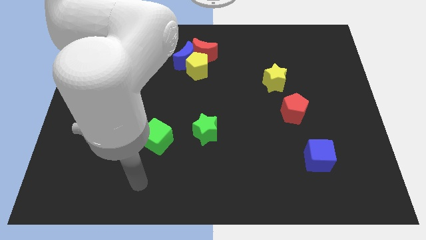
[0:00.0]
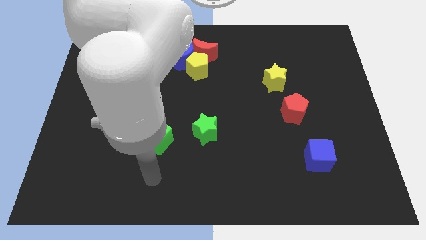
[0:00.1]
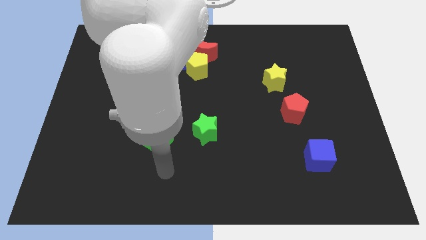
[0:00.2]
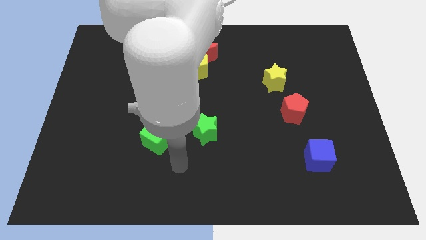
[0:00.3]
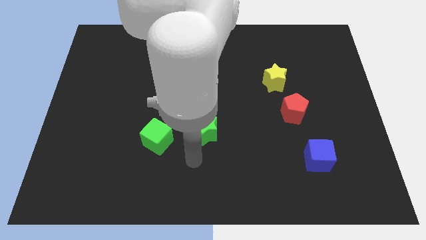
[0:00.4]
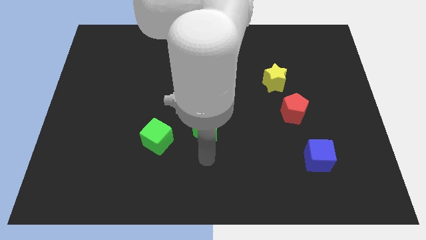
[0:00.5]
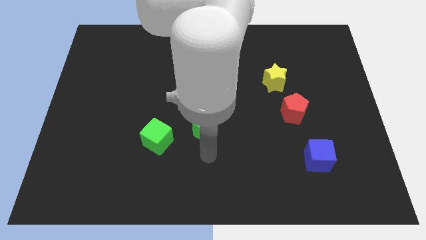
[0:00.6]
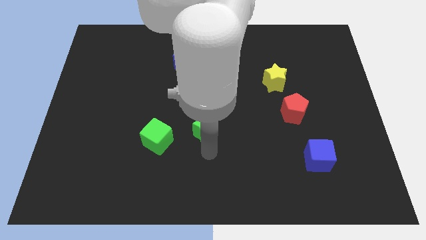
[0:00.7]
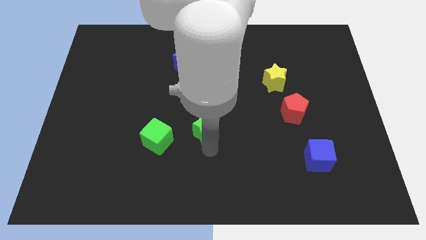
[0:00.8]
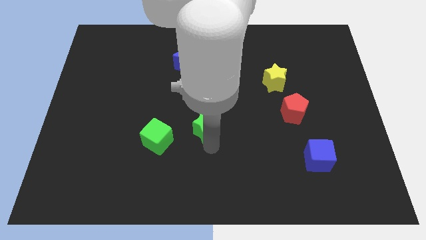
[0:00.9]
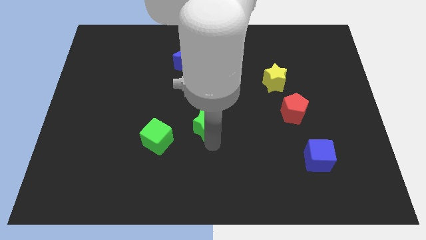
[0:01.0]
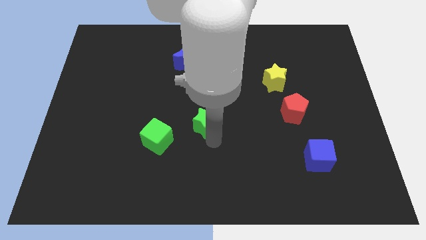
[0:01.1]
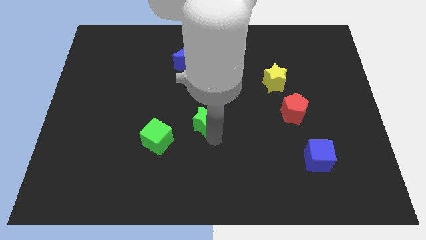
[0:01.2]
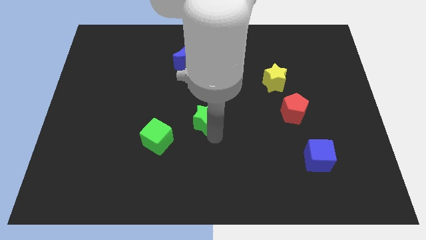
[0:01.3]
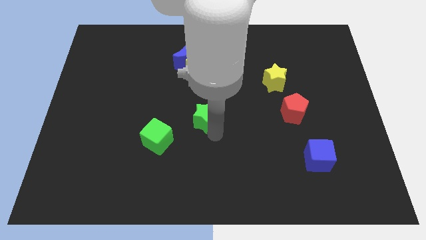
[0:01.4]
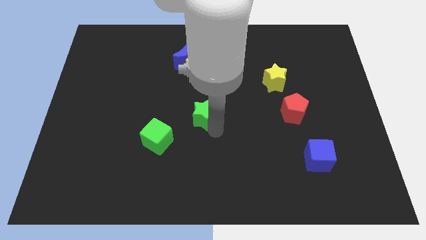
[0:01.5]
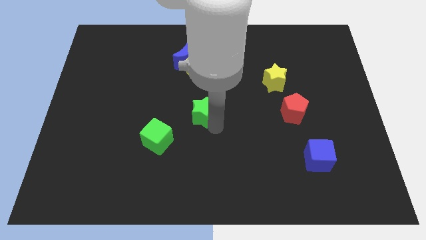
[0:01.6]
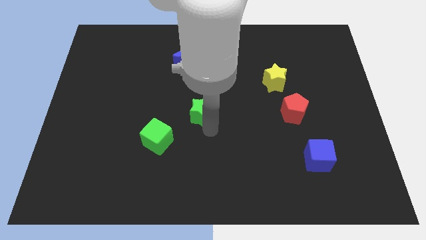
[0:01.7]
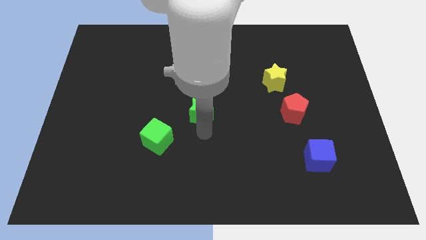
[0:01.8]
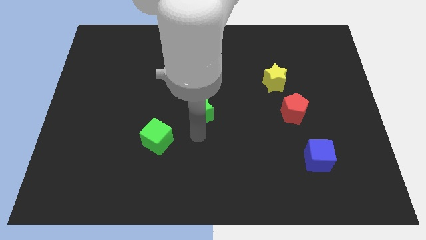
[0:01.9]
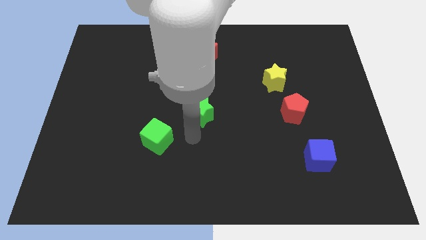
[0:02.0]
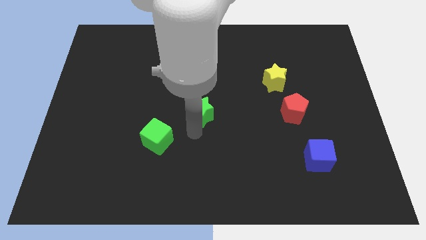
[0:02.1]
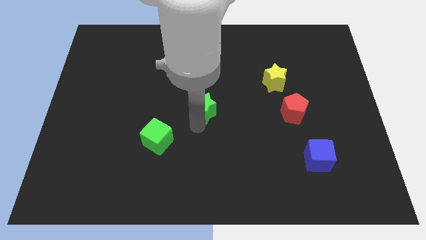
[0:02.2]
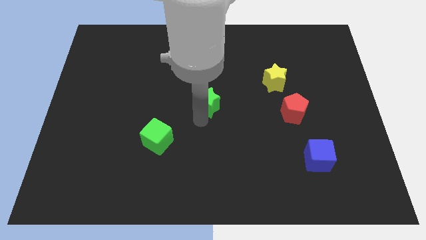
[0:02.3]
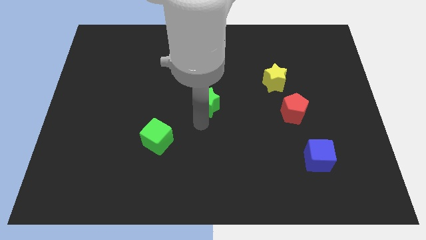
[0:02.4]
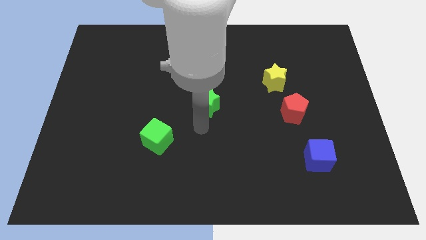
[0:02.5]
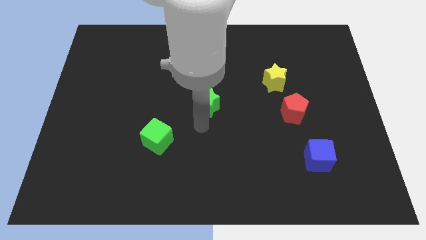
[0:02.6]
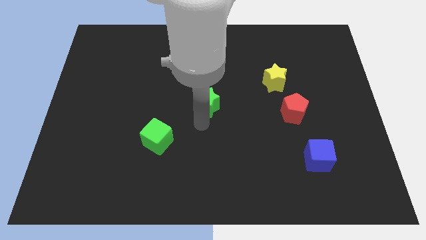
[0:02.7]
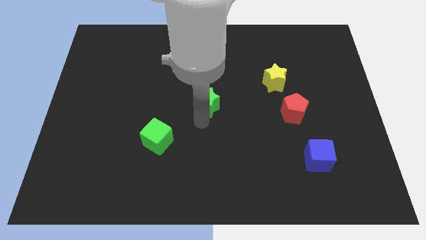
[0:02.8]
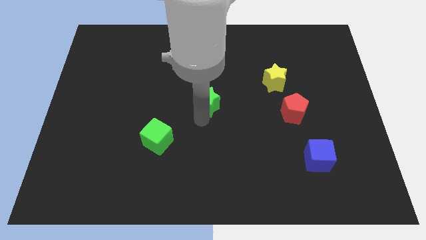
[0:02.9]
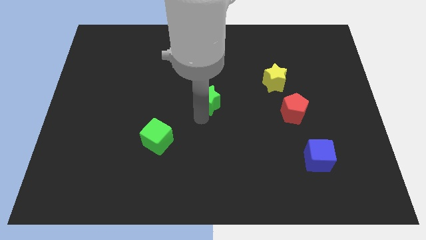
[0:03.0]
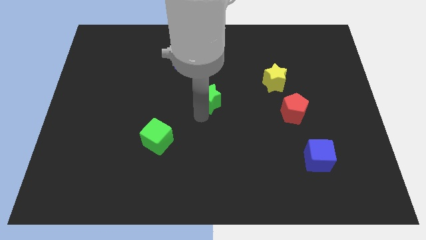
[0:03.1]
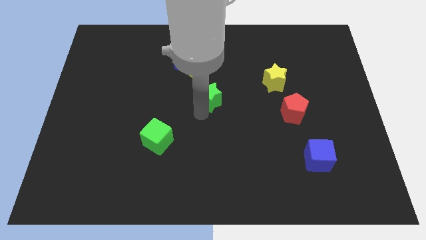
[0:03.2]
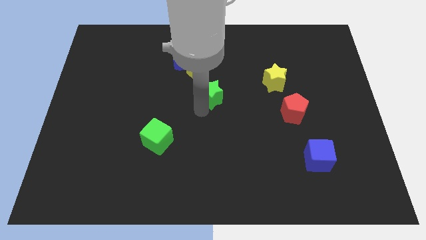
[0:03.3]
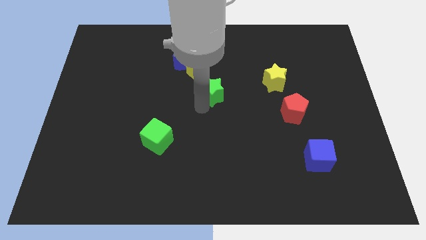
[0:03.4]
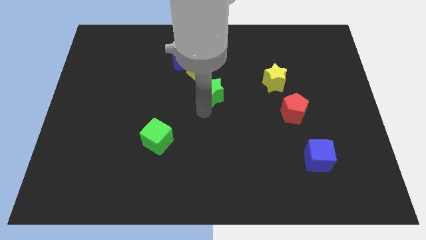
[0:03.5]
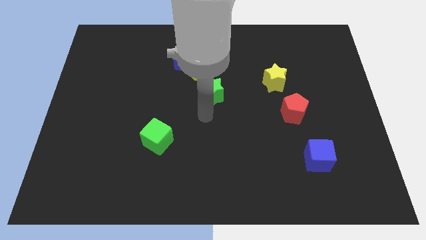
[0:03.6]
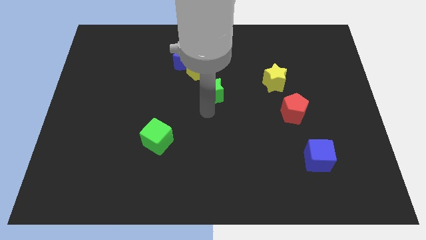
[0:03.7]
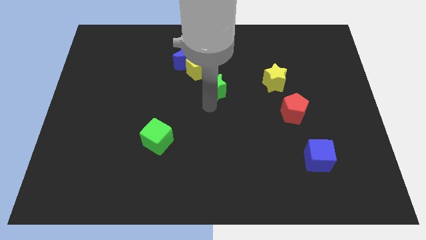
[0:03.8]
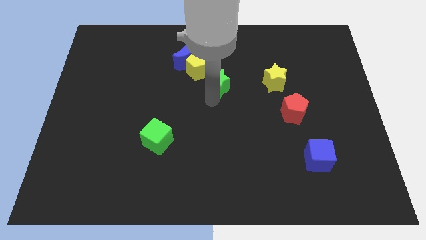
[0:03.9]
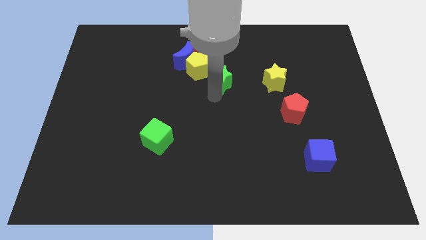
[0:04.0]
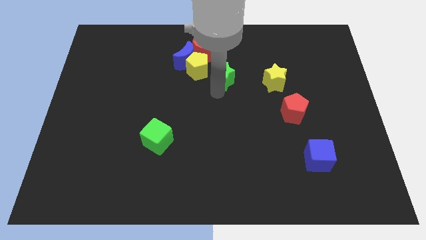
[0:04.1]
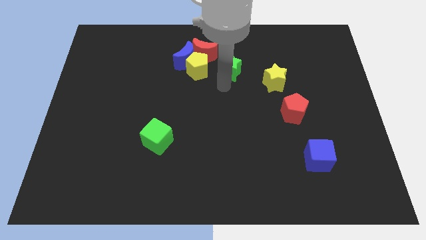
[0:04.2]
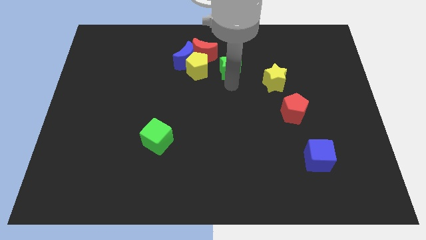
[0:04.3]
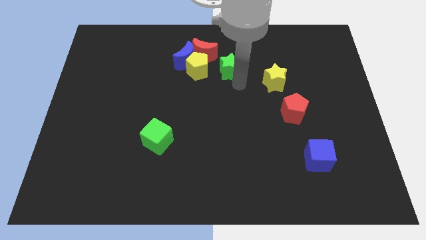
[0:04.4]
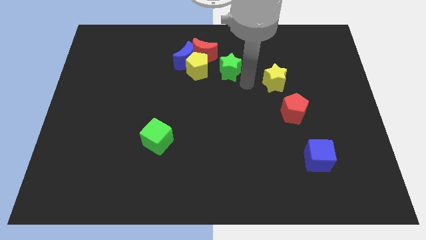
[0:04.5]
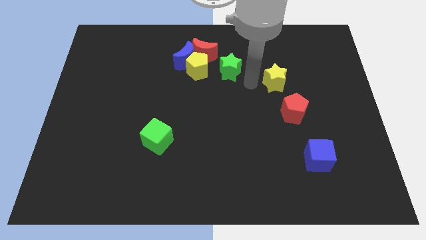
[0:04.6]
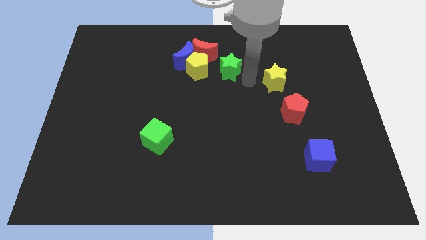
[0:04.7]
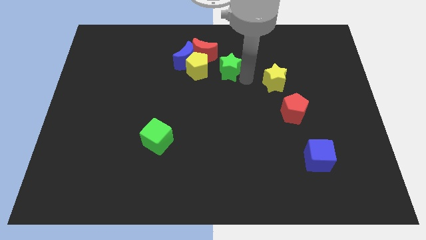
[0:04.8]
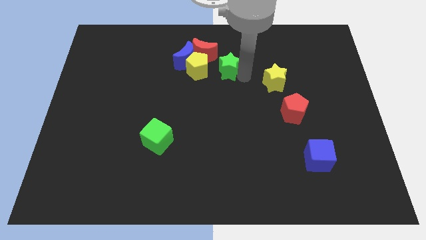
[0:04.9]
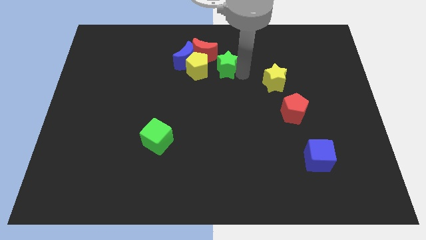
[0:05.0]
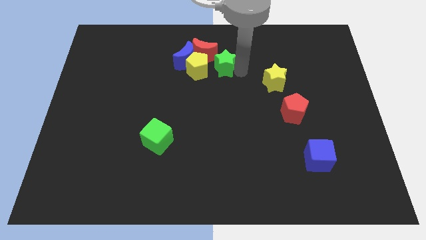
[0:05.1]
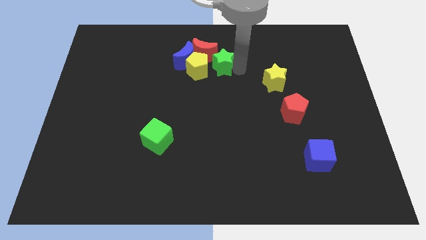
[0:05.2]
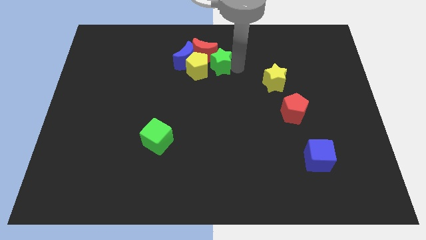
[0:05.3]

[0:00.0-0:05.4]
push the green star to the red moon

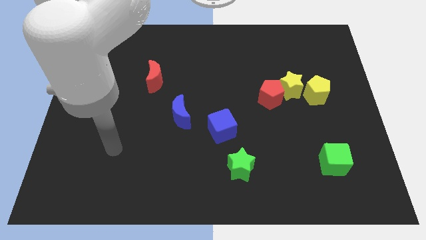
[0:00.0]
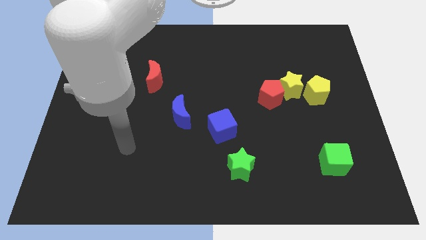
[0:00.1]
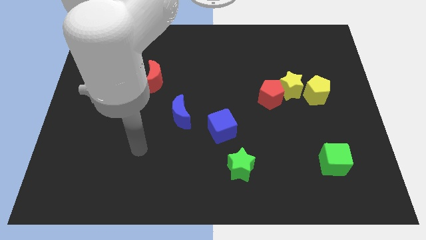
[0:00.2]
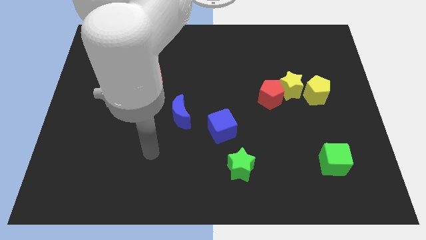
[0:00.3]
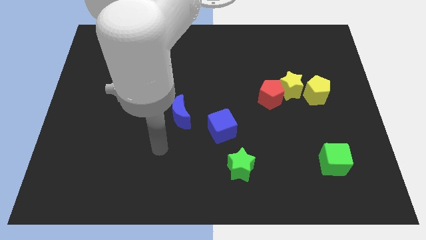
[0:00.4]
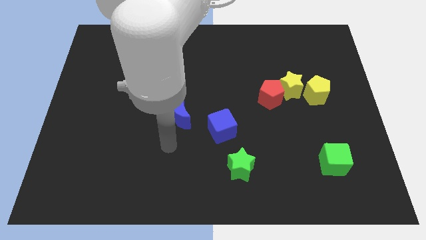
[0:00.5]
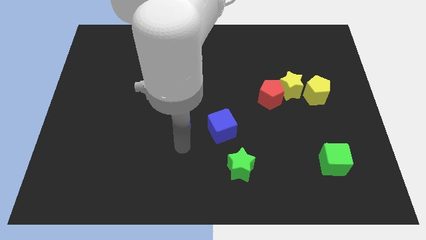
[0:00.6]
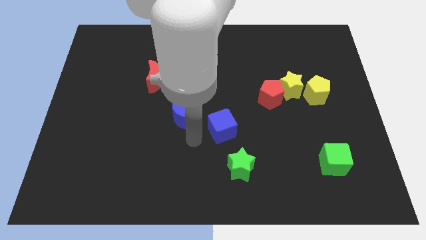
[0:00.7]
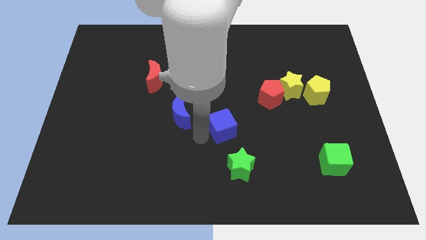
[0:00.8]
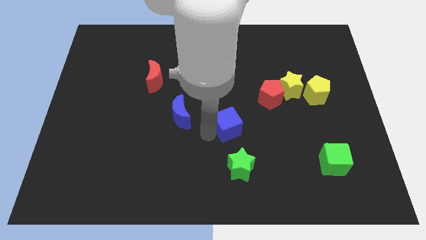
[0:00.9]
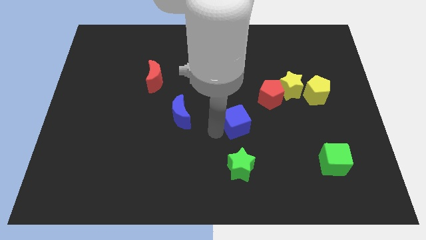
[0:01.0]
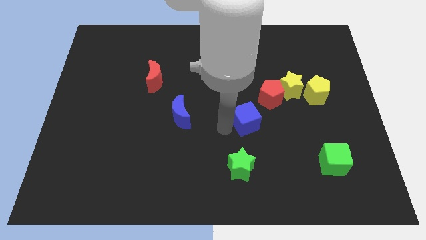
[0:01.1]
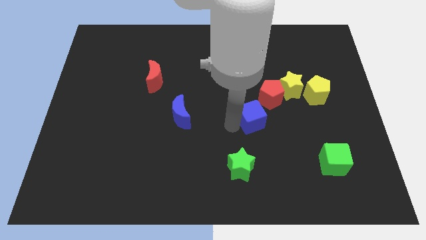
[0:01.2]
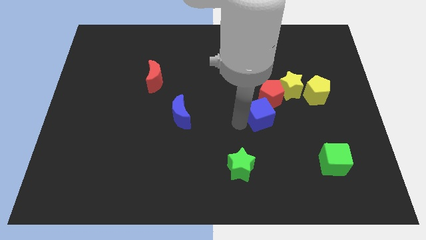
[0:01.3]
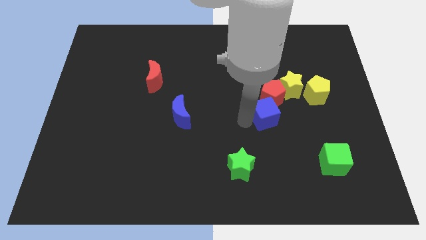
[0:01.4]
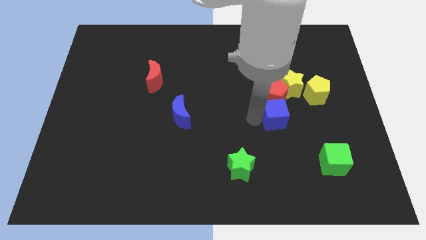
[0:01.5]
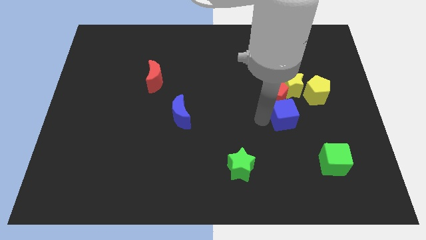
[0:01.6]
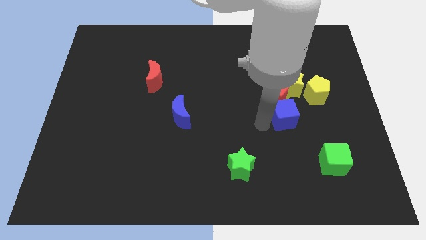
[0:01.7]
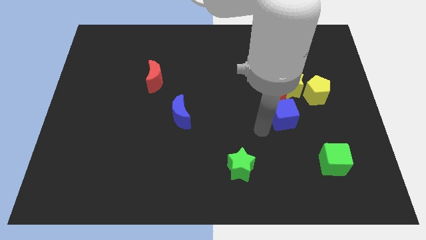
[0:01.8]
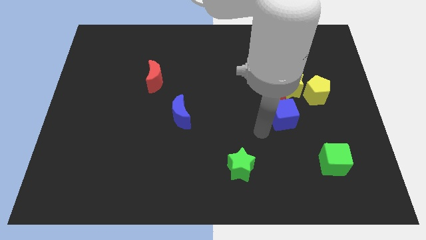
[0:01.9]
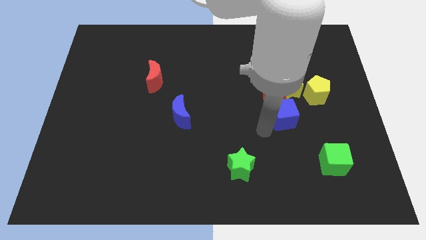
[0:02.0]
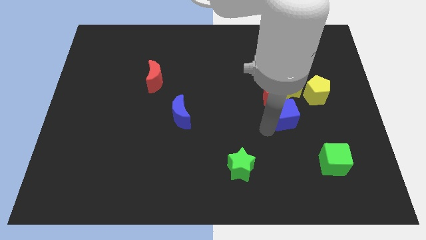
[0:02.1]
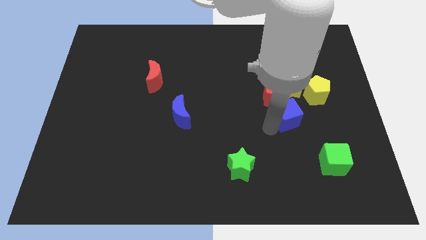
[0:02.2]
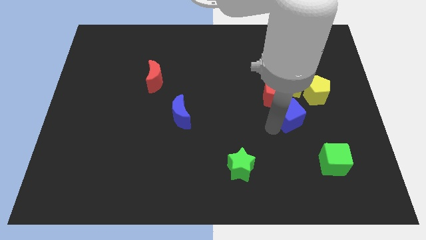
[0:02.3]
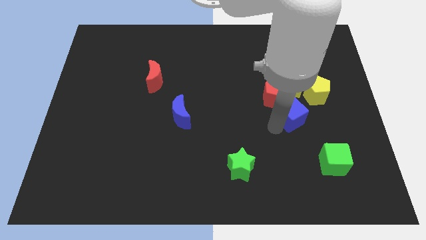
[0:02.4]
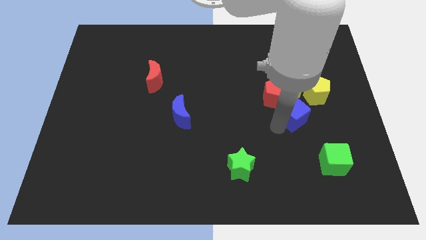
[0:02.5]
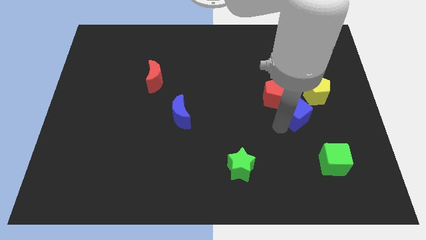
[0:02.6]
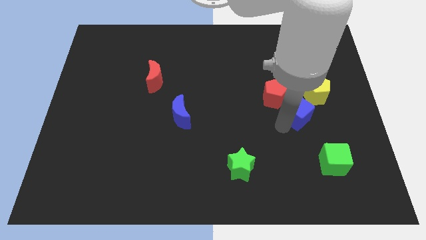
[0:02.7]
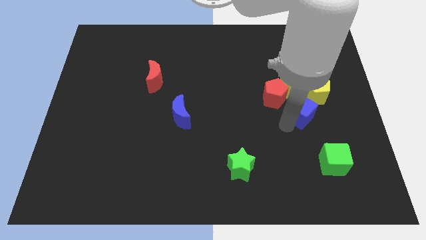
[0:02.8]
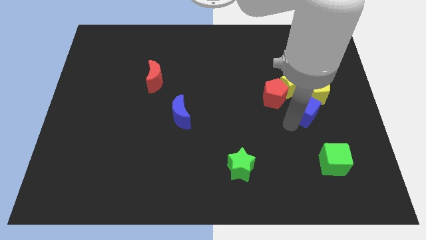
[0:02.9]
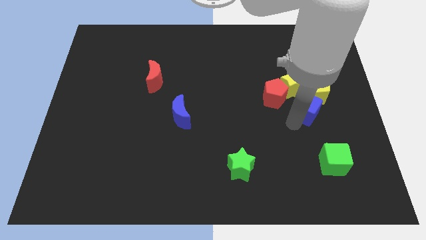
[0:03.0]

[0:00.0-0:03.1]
slide the blue cube to the yellow pentagon
